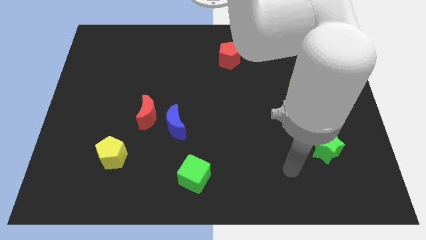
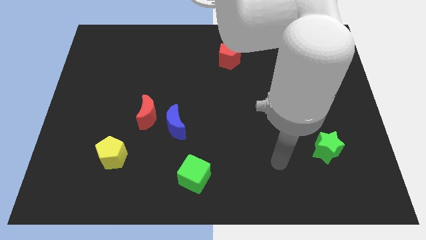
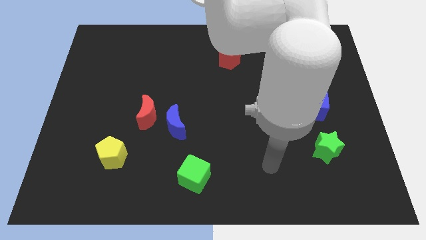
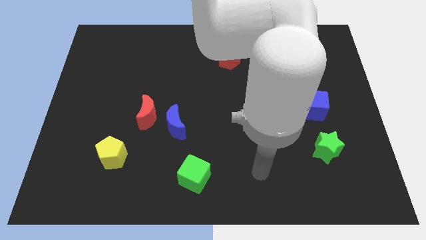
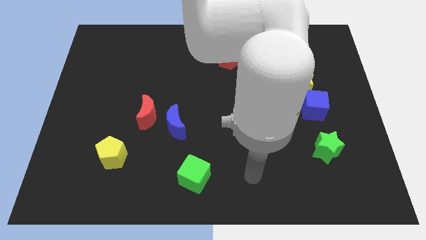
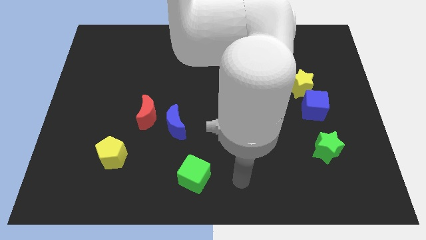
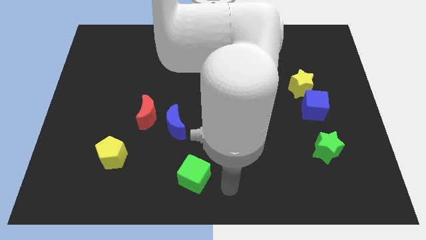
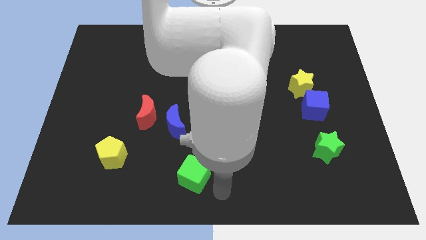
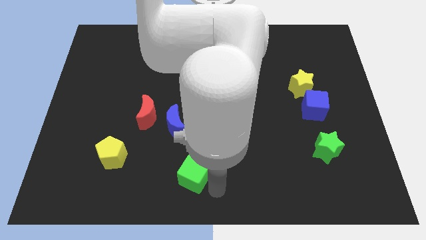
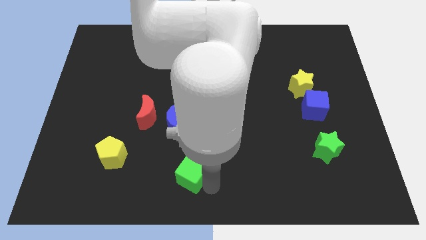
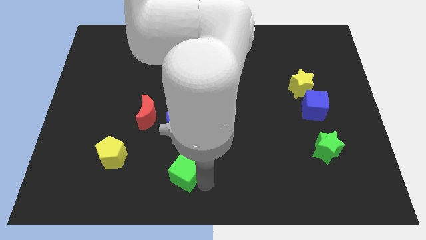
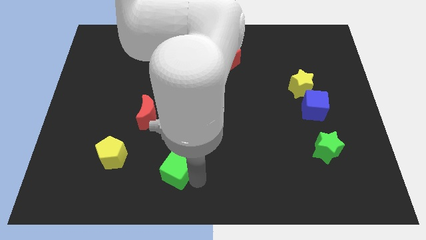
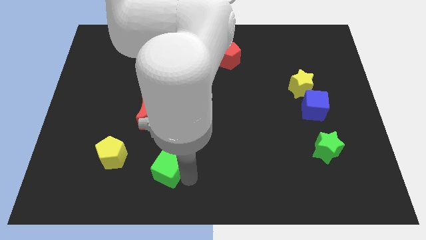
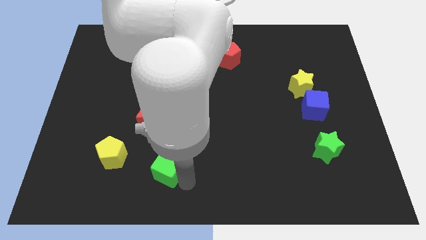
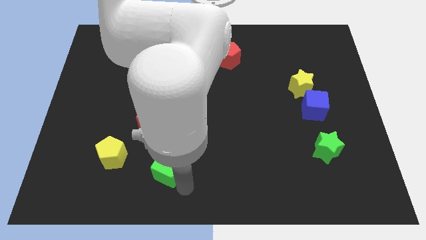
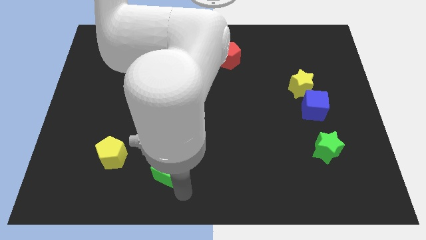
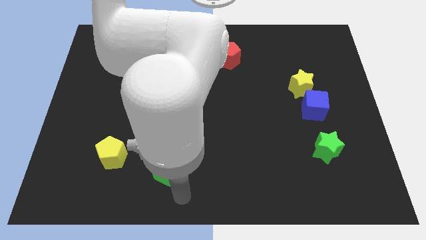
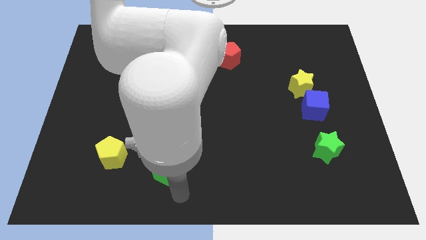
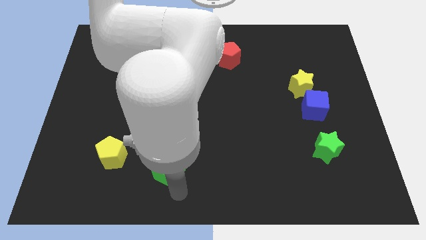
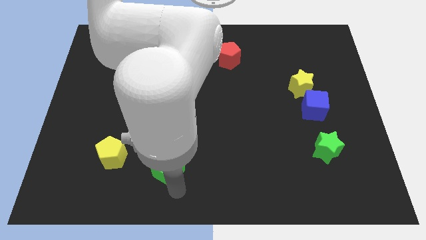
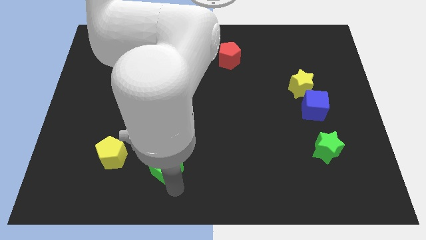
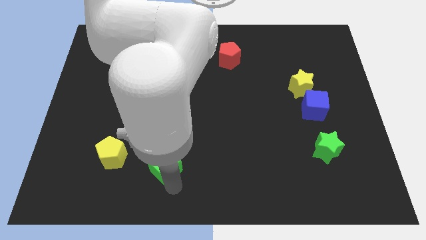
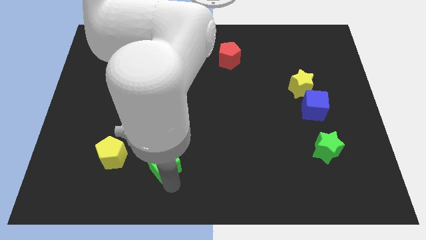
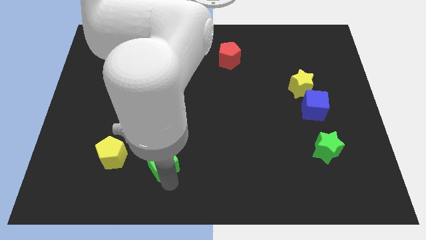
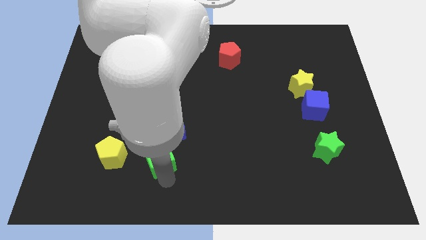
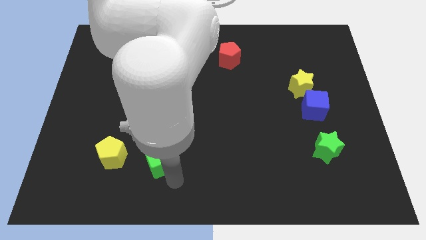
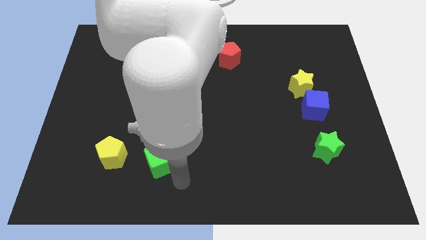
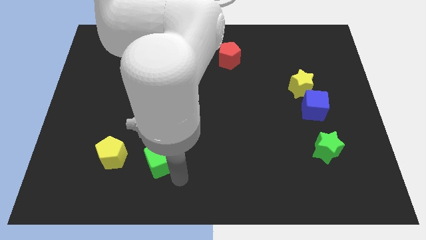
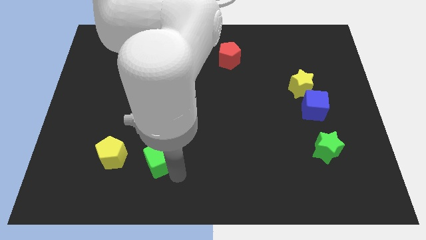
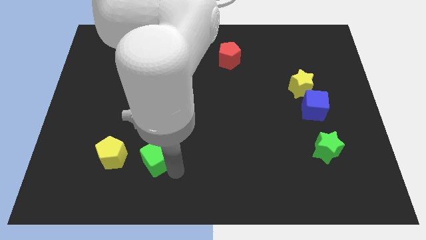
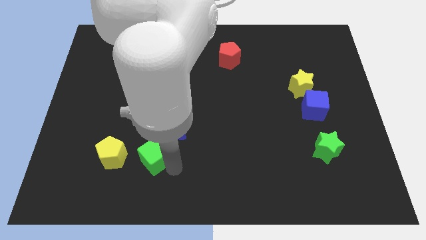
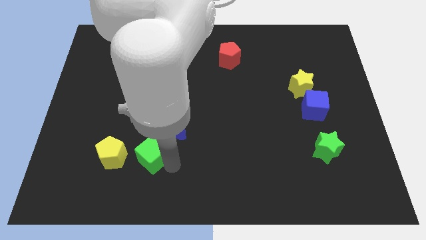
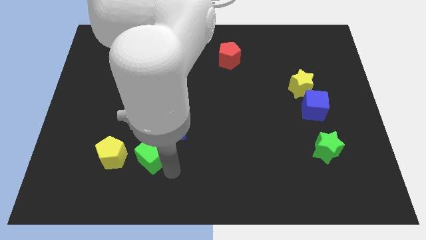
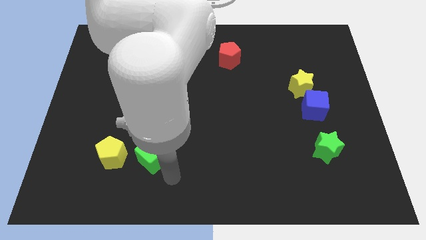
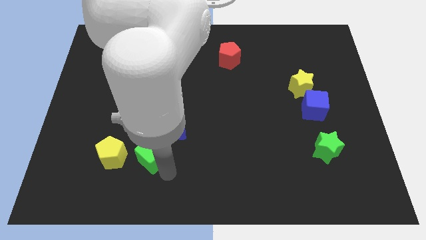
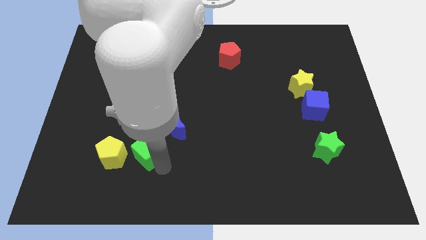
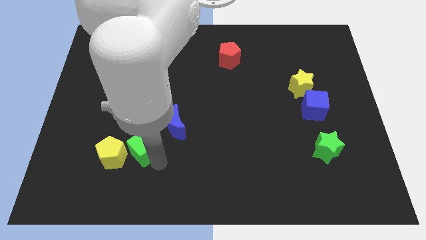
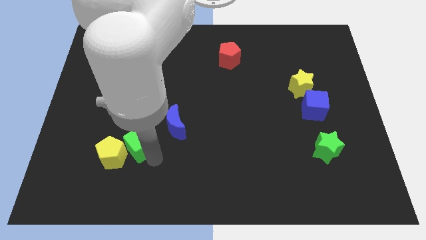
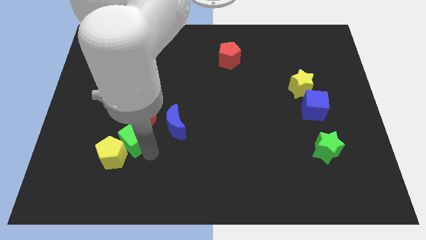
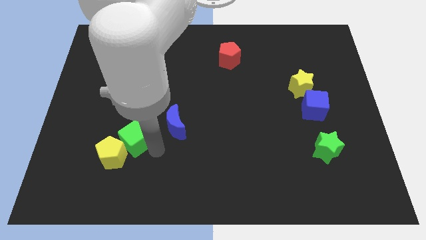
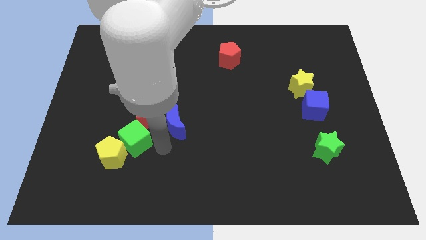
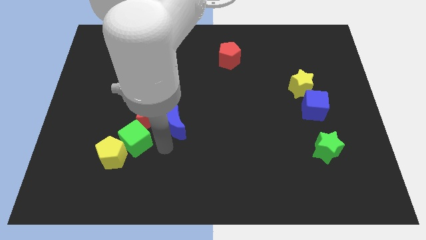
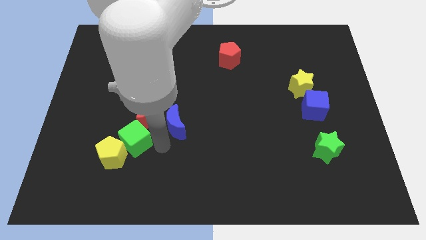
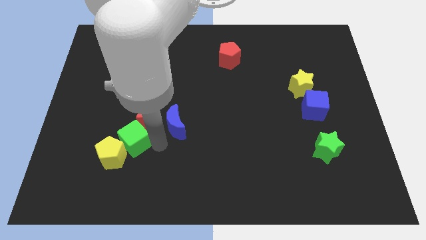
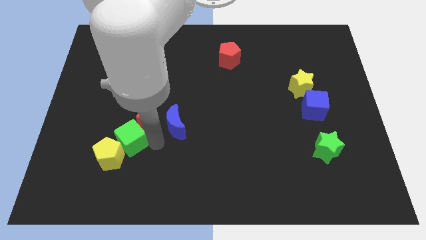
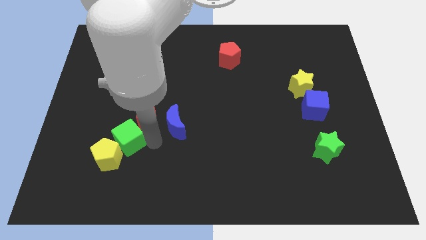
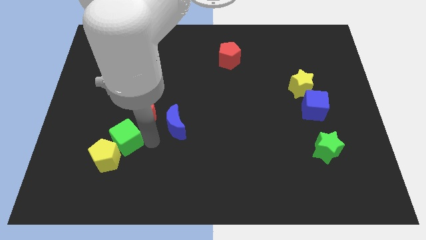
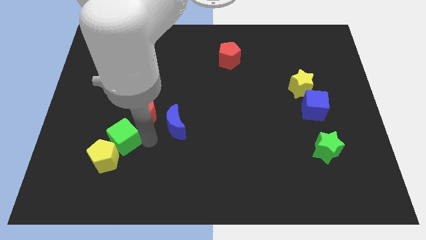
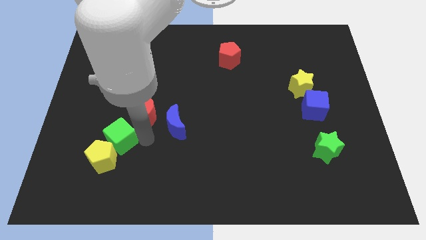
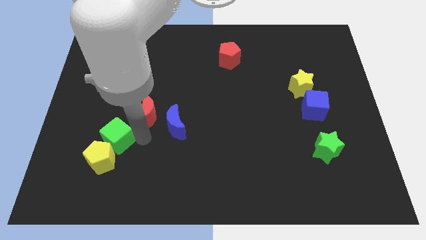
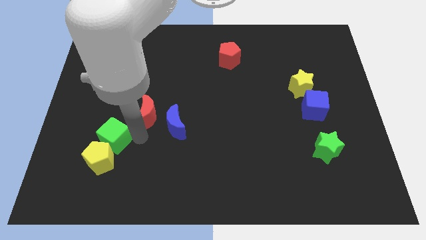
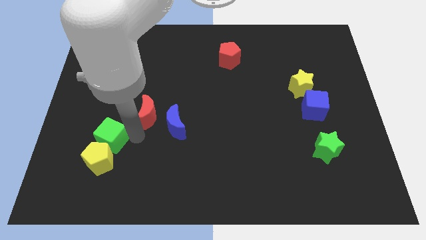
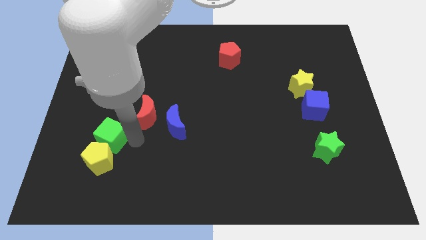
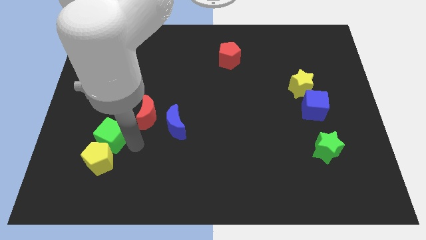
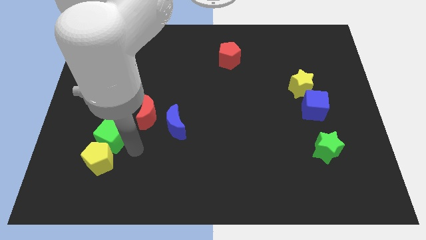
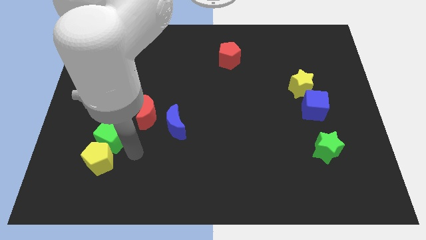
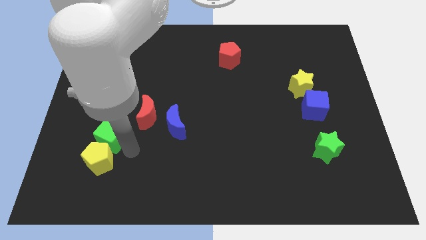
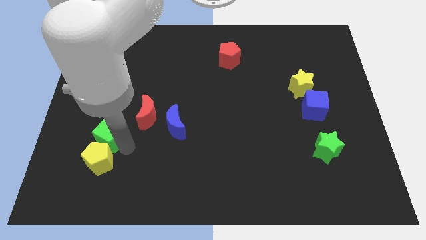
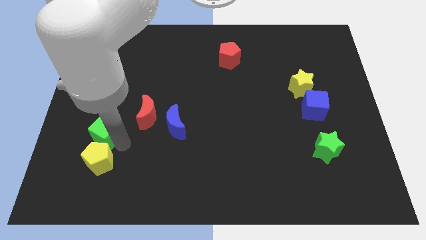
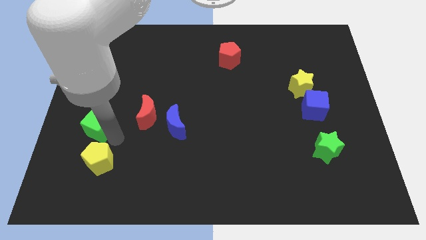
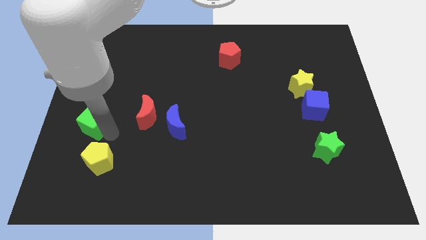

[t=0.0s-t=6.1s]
slide the green cube to the left side of the board
